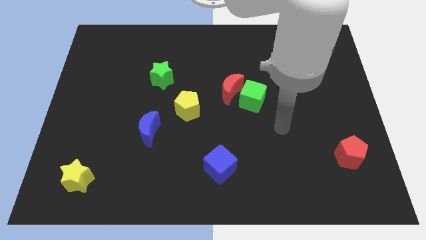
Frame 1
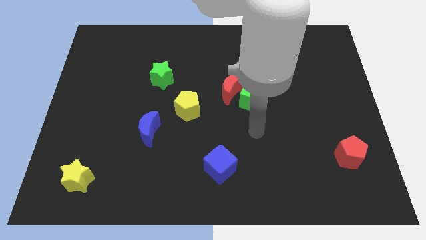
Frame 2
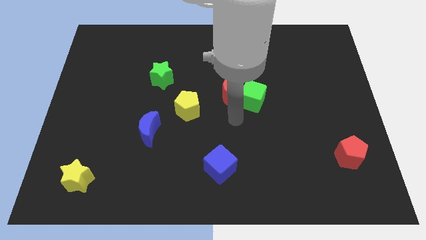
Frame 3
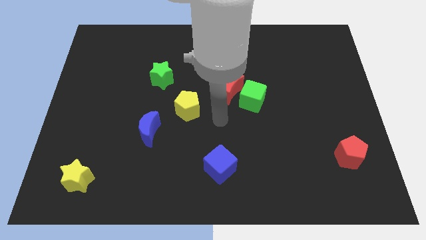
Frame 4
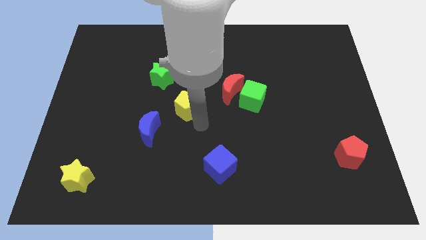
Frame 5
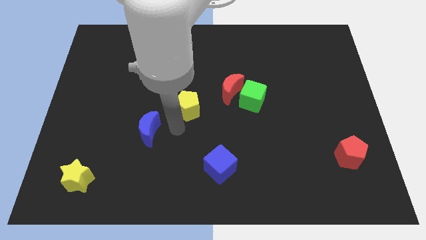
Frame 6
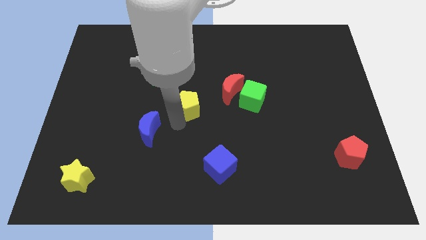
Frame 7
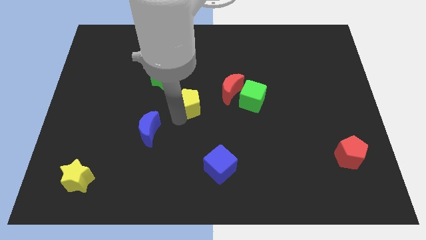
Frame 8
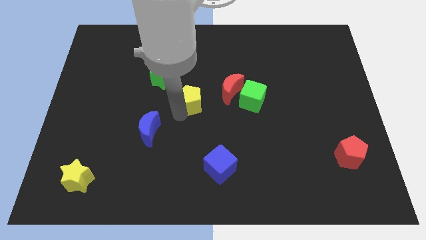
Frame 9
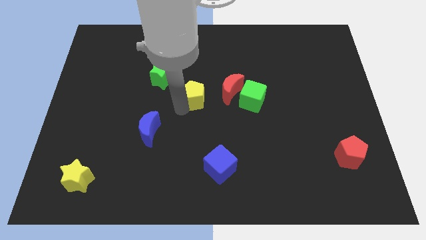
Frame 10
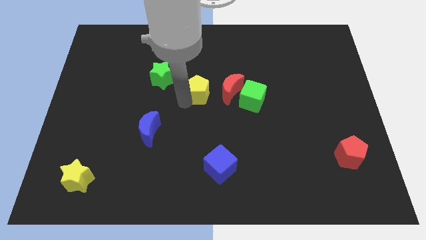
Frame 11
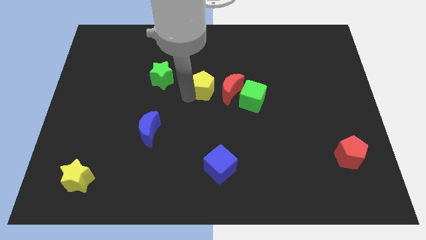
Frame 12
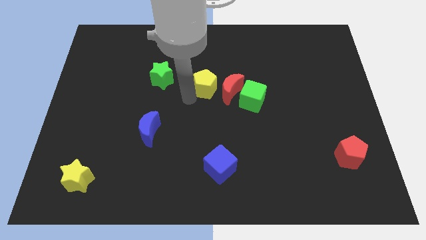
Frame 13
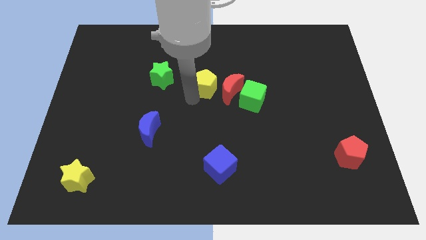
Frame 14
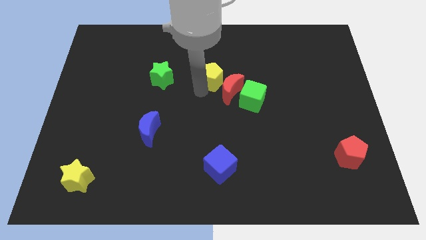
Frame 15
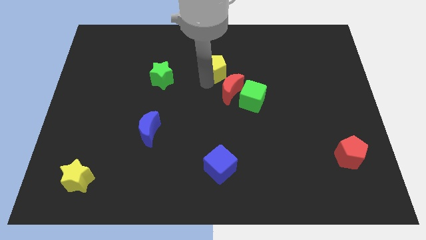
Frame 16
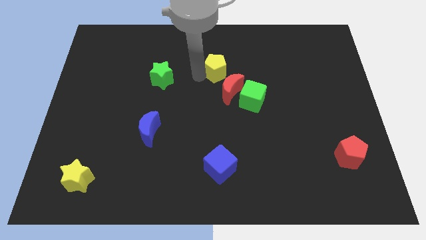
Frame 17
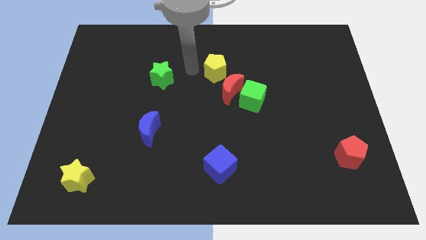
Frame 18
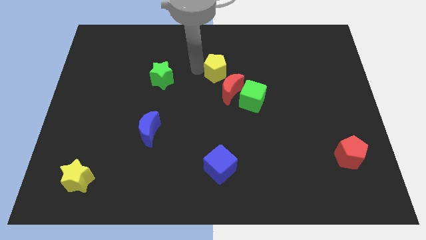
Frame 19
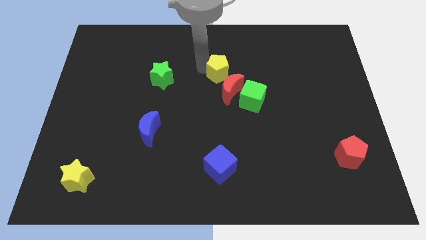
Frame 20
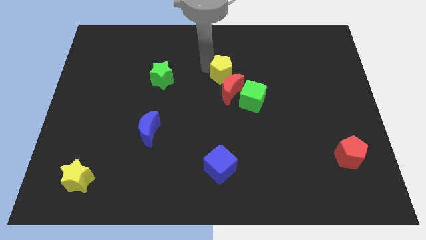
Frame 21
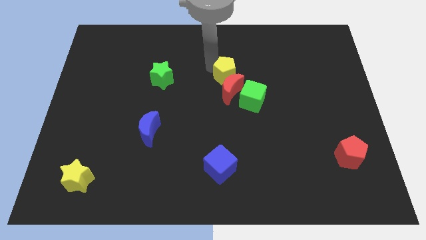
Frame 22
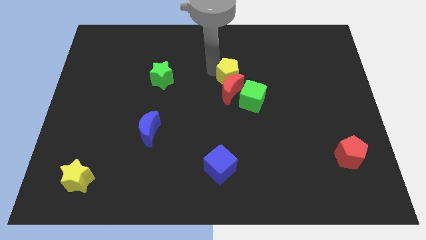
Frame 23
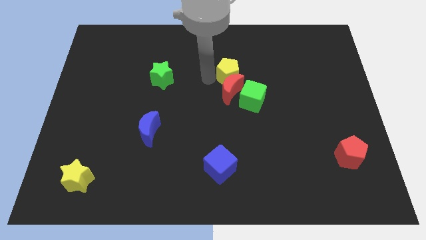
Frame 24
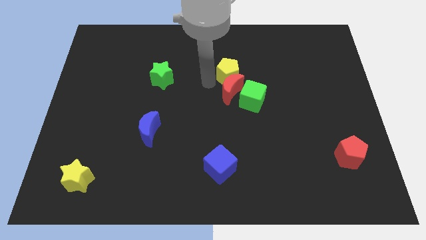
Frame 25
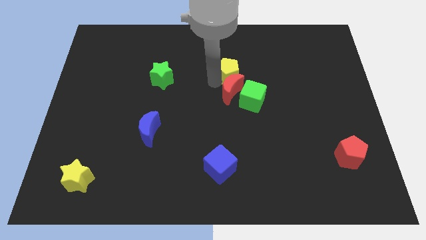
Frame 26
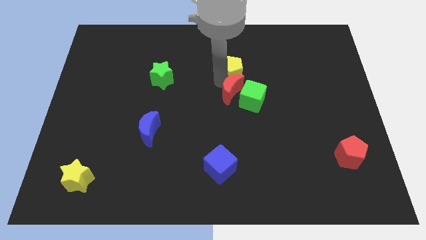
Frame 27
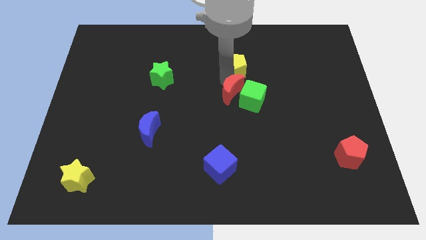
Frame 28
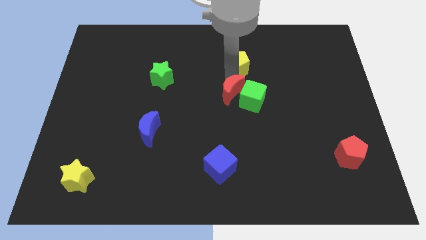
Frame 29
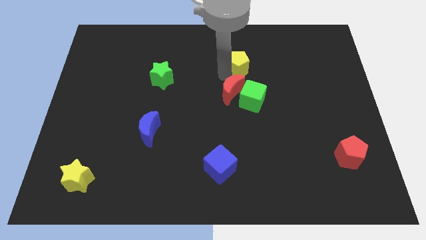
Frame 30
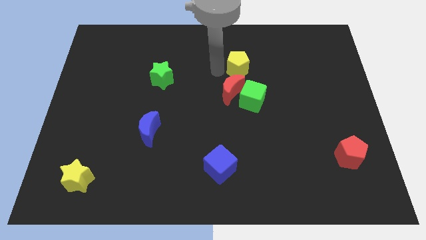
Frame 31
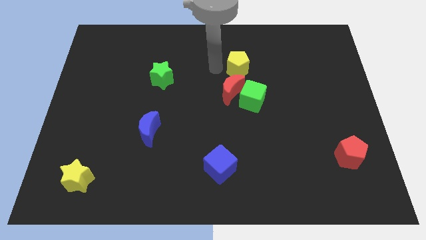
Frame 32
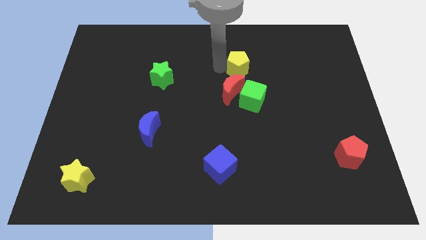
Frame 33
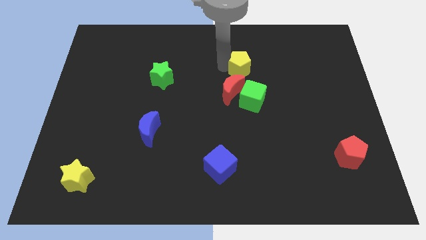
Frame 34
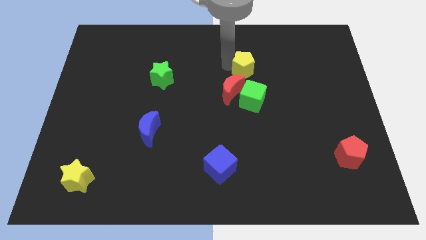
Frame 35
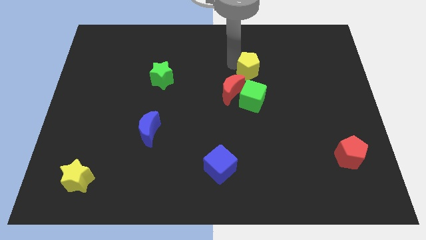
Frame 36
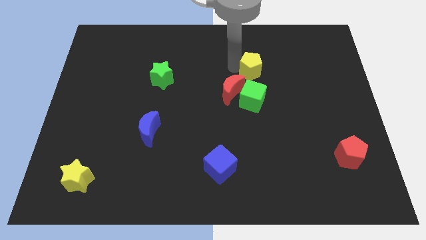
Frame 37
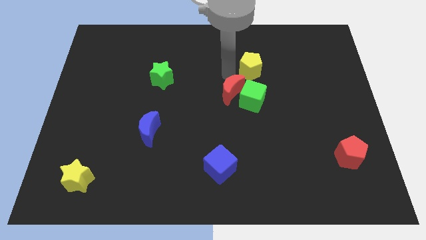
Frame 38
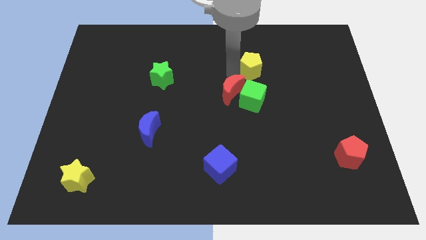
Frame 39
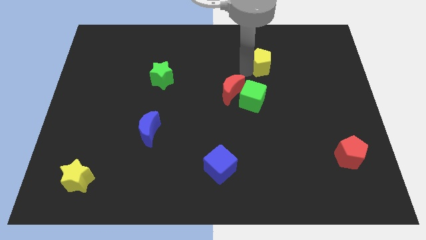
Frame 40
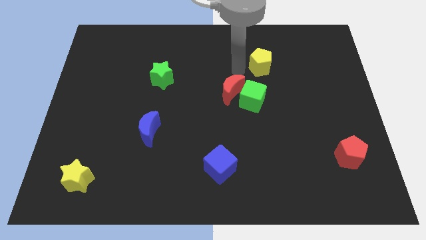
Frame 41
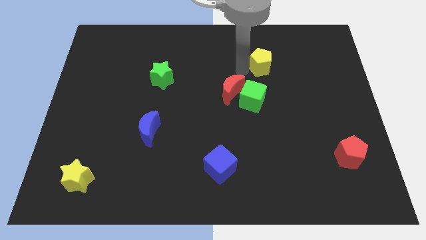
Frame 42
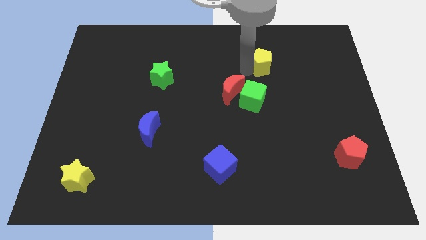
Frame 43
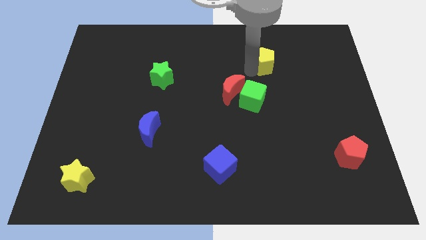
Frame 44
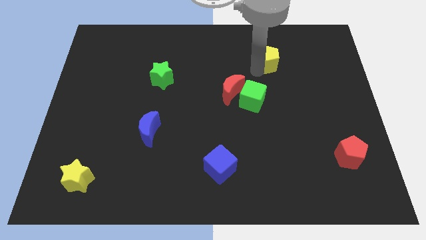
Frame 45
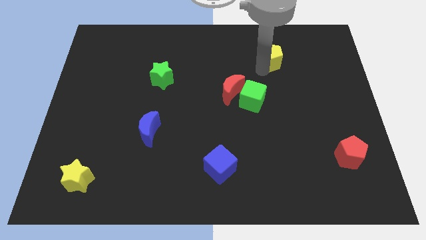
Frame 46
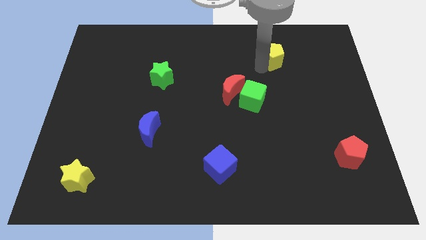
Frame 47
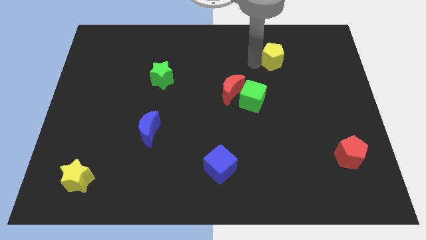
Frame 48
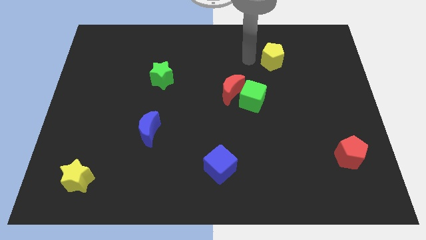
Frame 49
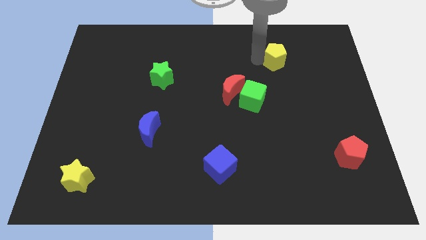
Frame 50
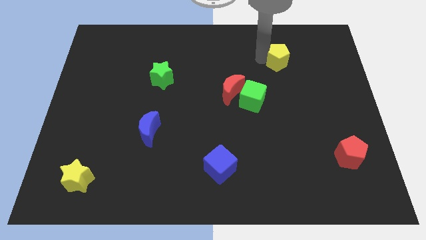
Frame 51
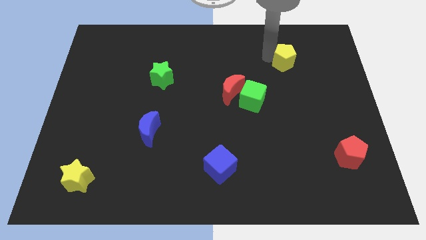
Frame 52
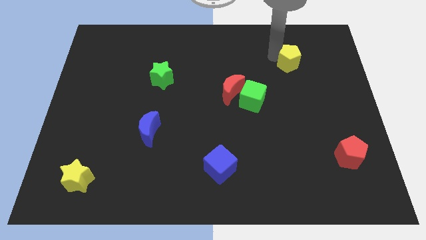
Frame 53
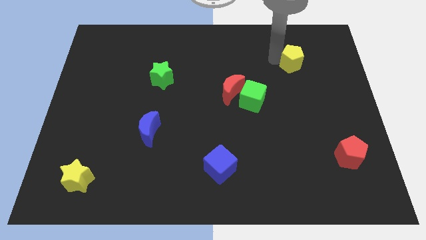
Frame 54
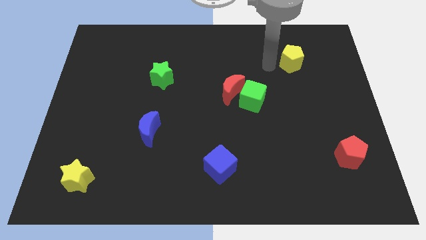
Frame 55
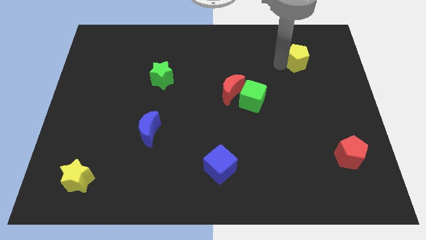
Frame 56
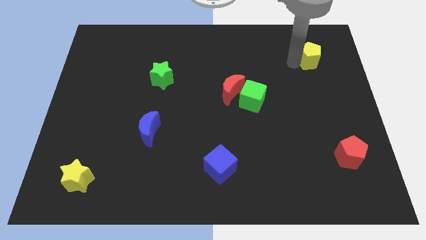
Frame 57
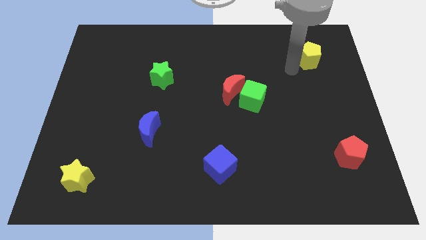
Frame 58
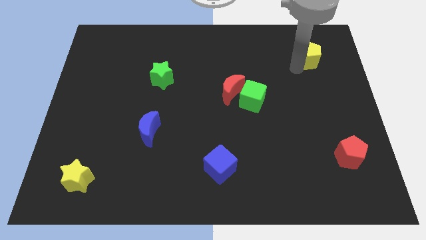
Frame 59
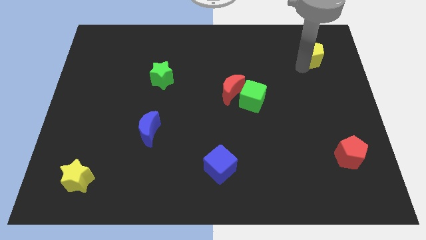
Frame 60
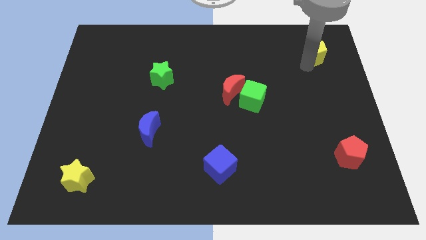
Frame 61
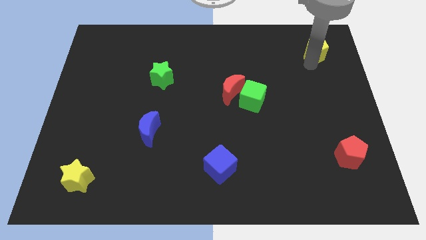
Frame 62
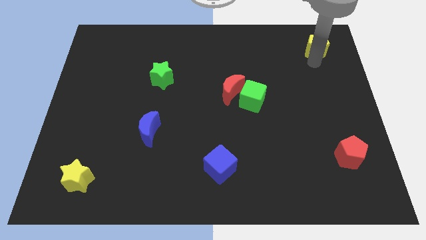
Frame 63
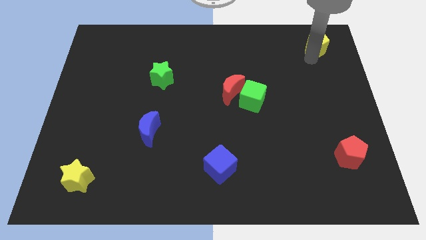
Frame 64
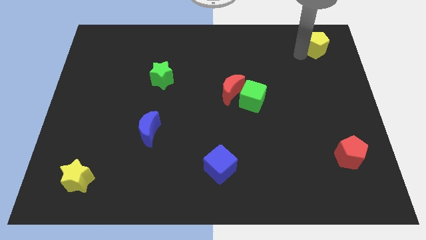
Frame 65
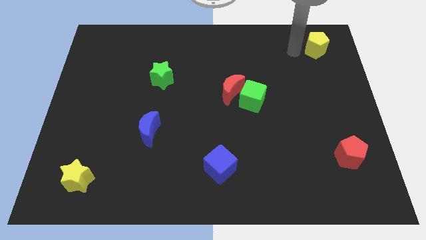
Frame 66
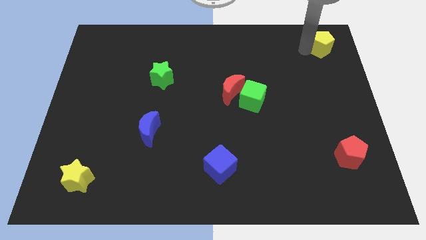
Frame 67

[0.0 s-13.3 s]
slide the yellow pentagon to the upper right corner

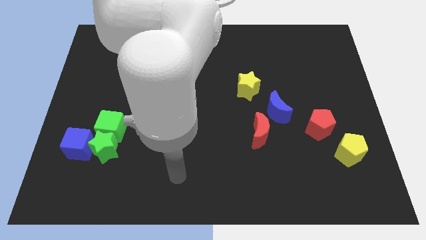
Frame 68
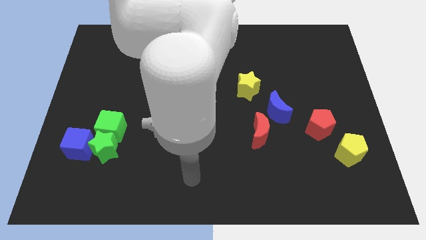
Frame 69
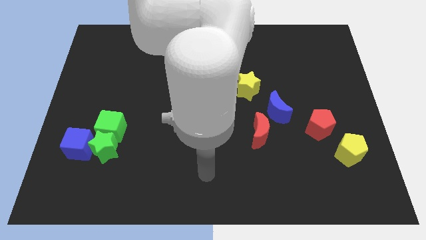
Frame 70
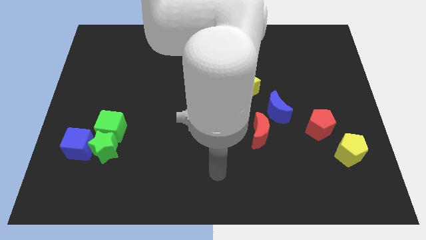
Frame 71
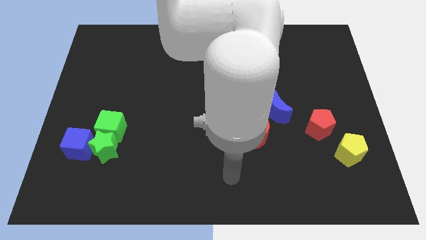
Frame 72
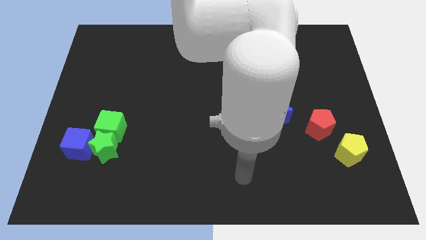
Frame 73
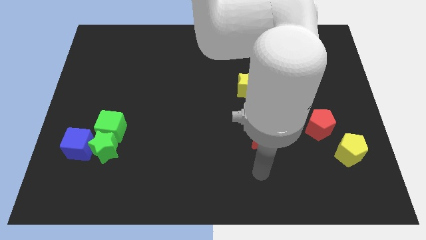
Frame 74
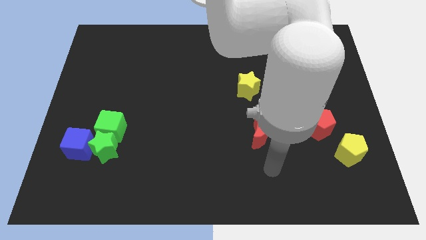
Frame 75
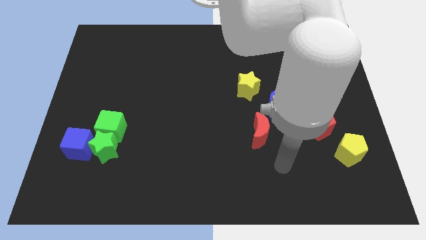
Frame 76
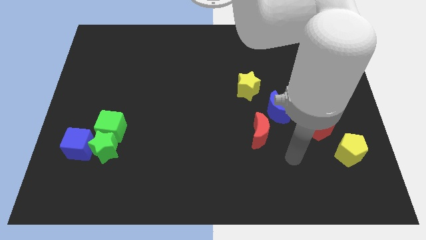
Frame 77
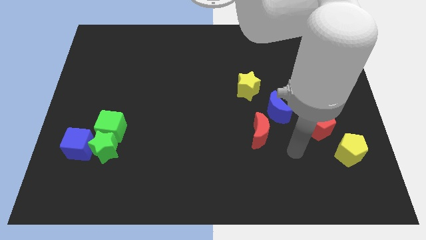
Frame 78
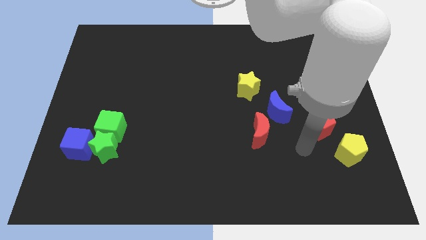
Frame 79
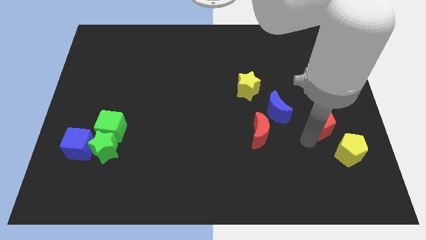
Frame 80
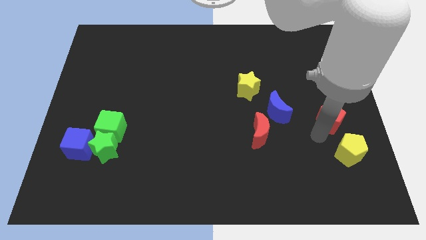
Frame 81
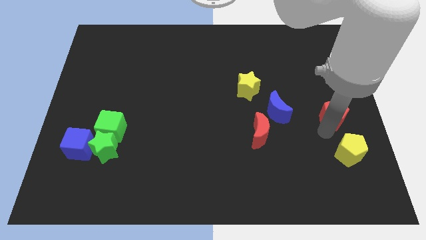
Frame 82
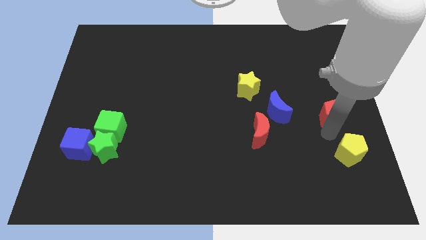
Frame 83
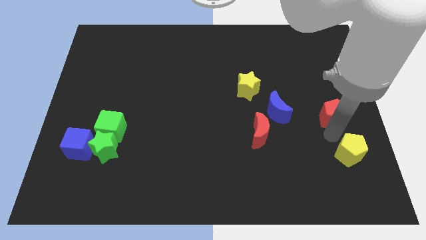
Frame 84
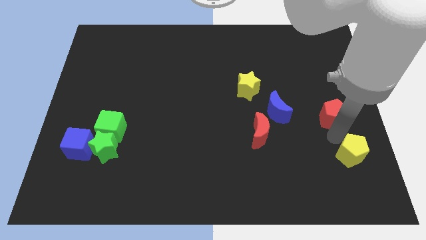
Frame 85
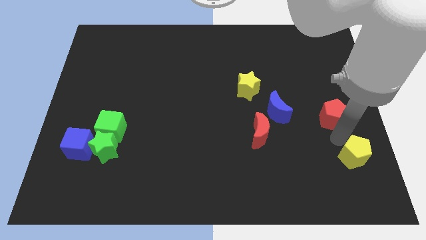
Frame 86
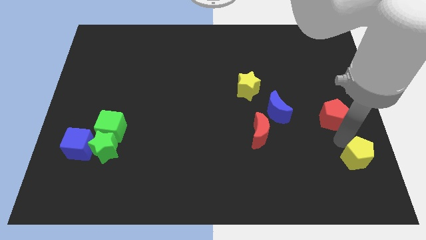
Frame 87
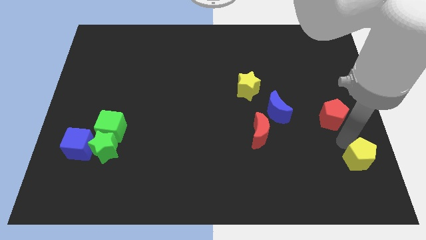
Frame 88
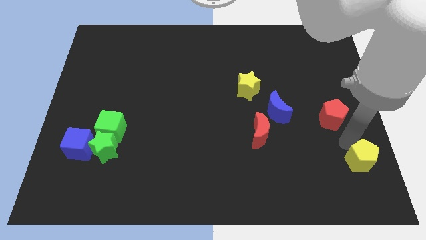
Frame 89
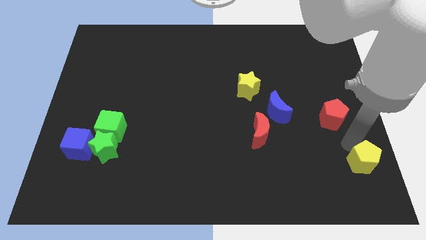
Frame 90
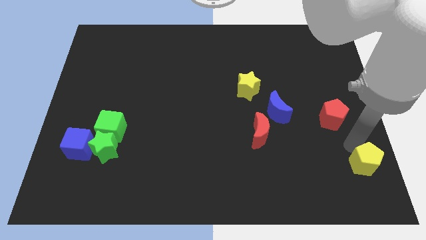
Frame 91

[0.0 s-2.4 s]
move the yellow pentagon to the bottom right
